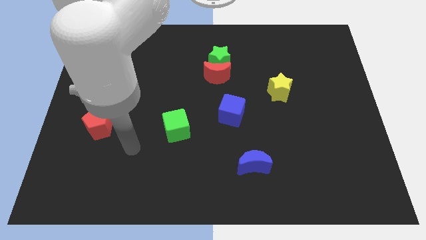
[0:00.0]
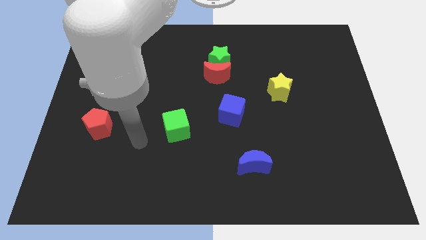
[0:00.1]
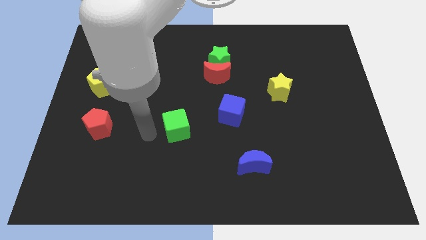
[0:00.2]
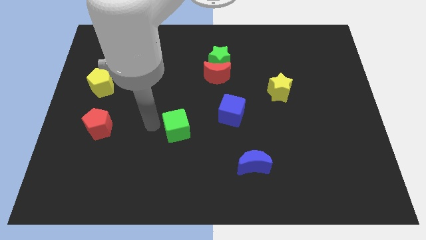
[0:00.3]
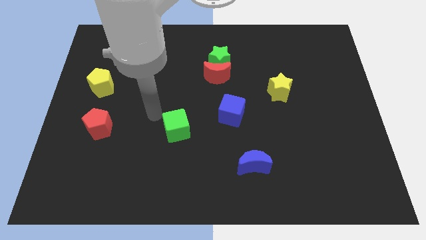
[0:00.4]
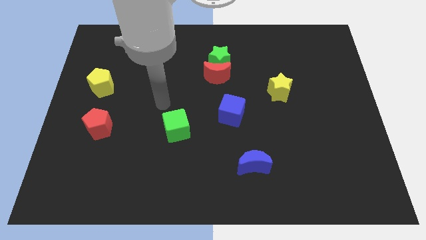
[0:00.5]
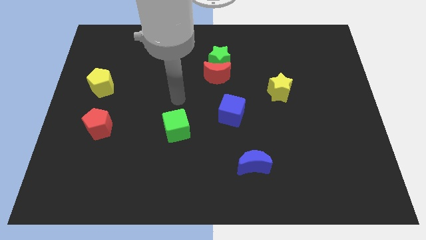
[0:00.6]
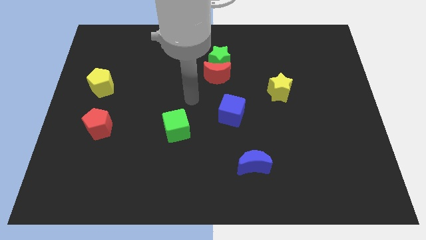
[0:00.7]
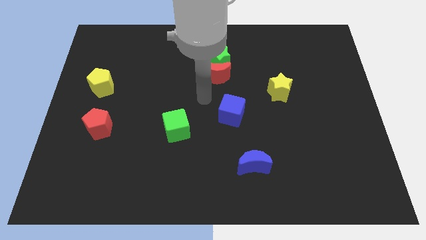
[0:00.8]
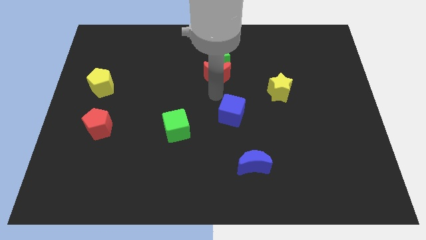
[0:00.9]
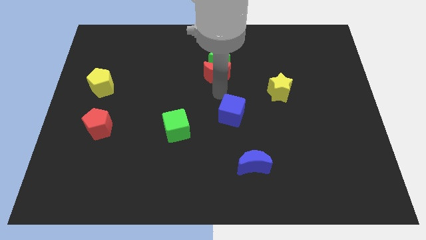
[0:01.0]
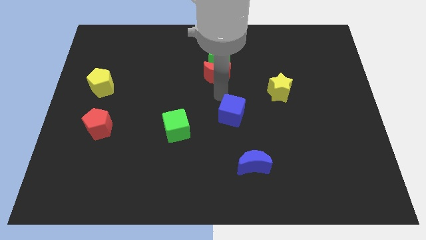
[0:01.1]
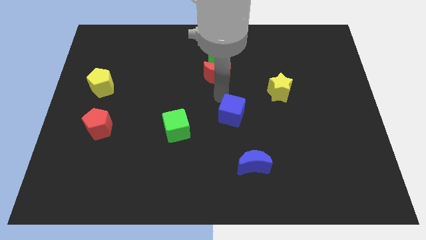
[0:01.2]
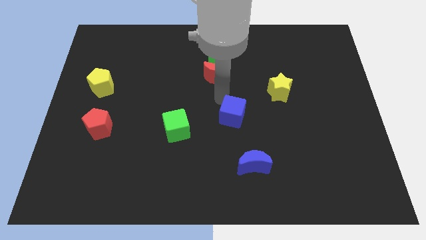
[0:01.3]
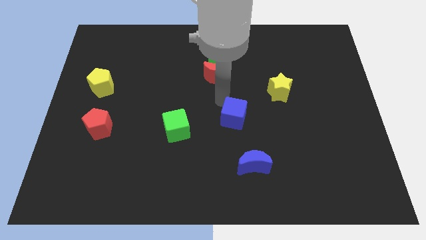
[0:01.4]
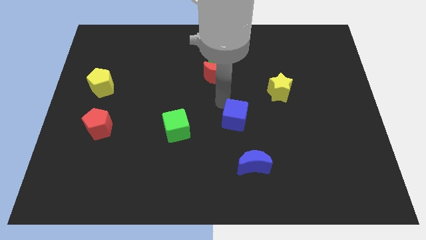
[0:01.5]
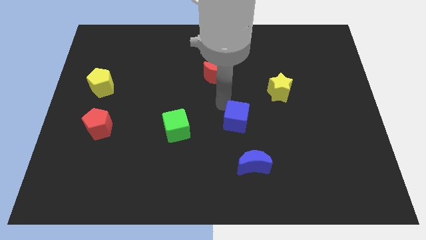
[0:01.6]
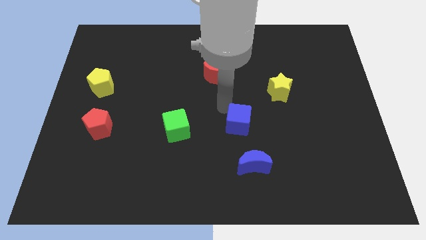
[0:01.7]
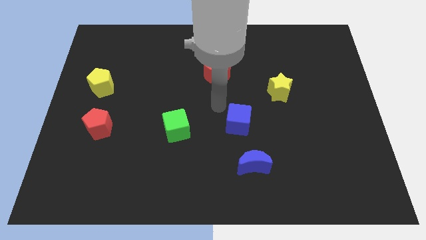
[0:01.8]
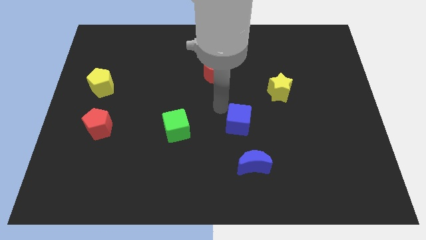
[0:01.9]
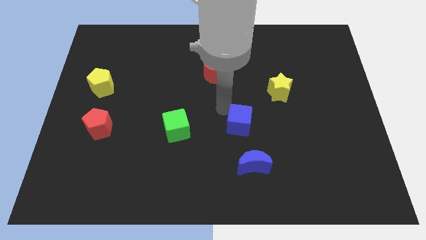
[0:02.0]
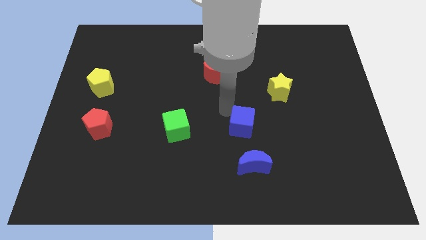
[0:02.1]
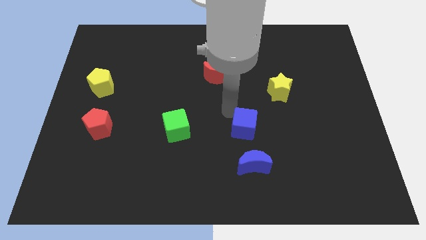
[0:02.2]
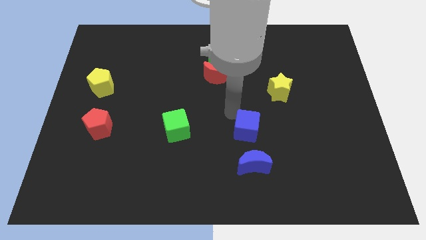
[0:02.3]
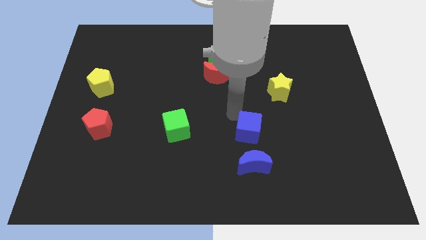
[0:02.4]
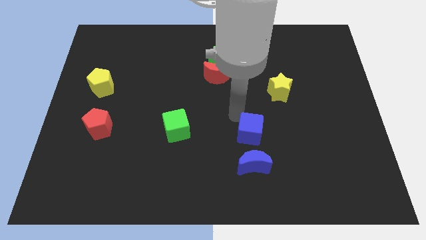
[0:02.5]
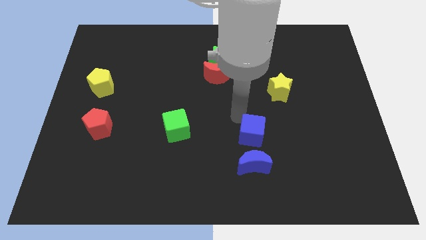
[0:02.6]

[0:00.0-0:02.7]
slide the blue cube slightly down and then to the right

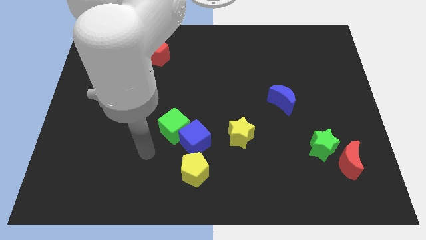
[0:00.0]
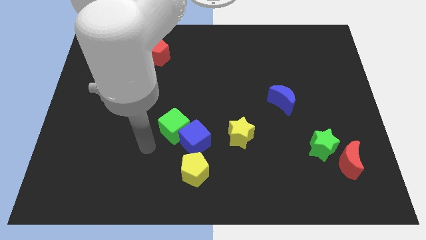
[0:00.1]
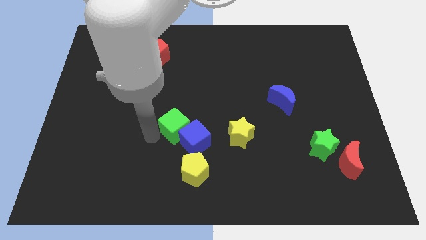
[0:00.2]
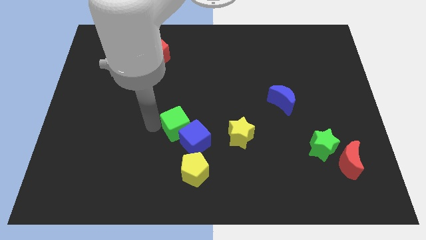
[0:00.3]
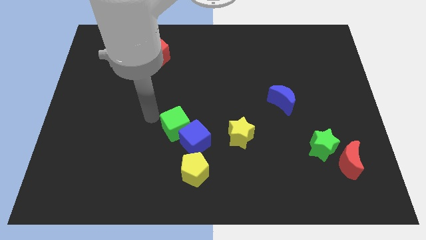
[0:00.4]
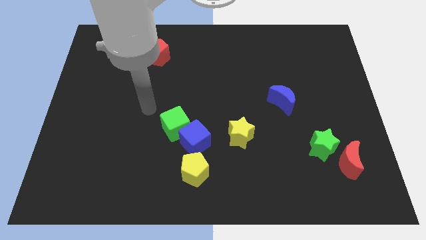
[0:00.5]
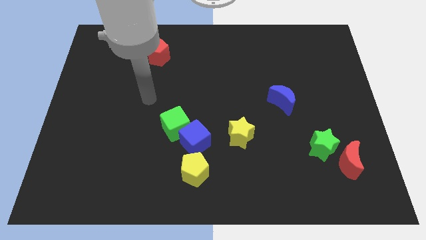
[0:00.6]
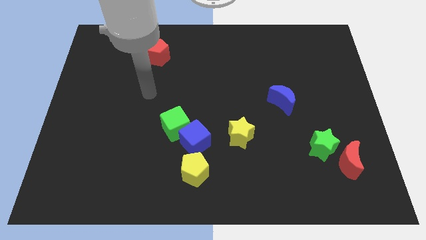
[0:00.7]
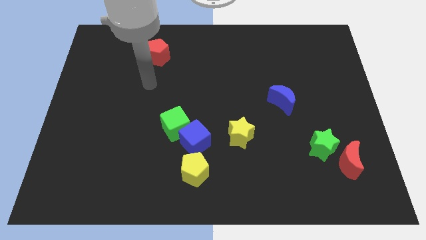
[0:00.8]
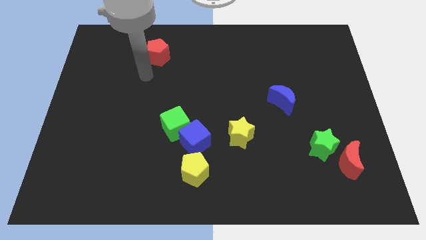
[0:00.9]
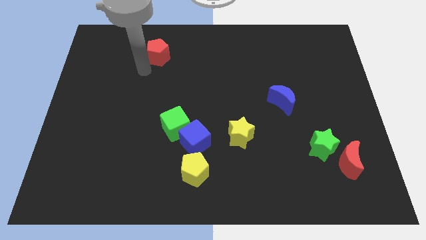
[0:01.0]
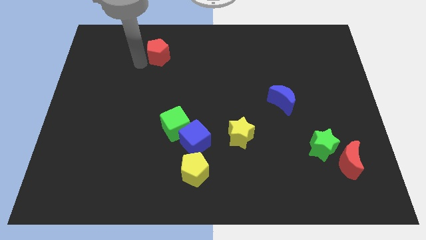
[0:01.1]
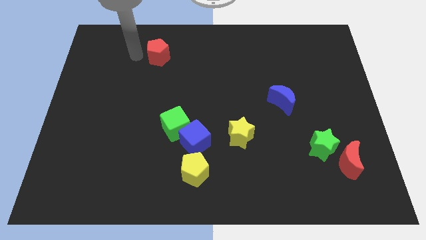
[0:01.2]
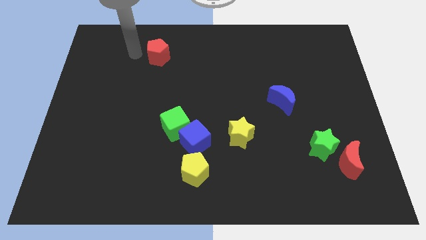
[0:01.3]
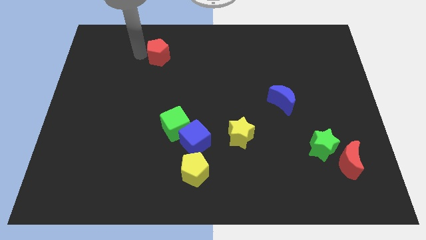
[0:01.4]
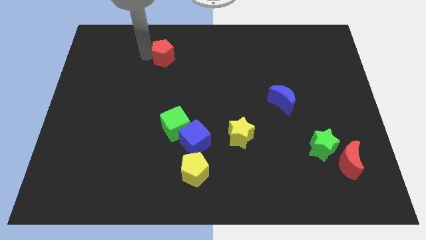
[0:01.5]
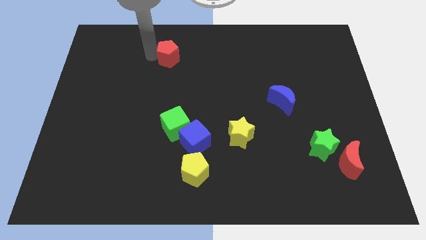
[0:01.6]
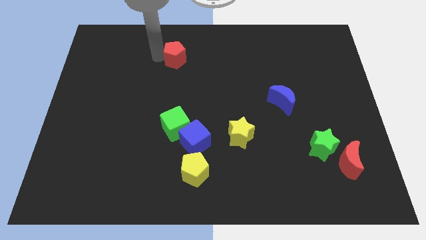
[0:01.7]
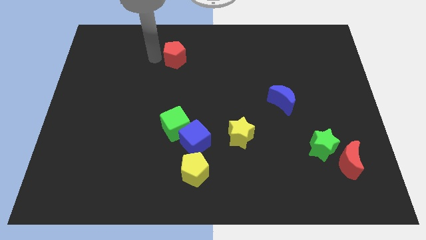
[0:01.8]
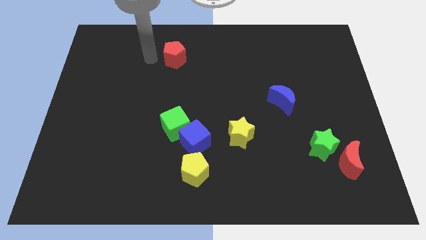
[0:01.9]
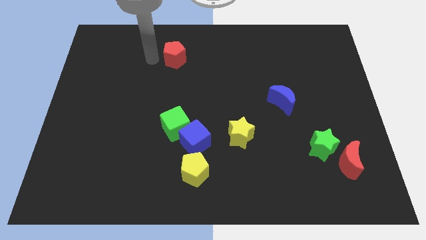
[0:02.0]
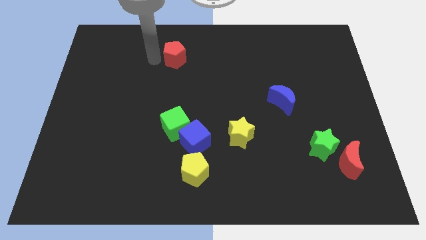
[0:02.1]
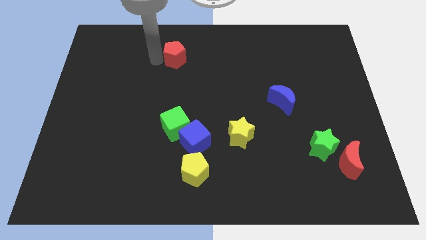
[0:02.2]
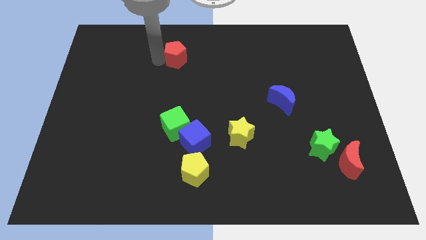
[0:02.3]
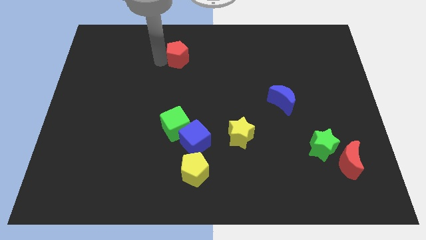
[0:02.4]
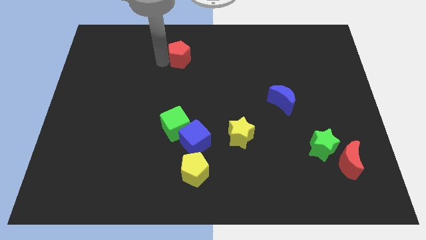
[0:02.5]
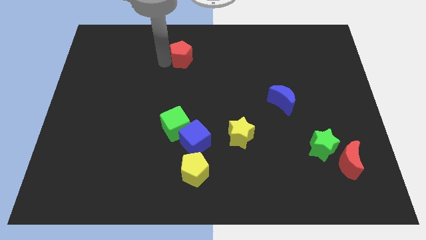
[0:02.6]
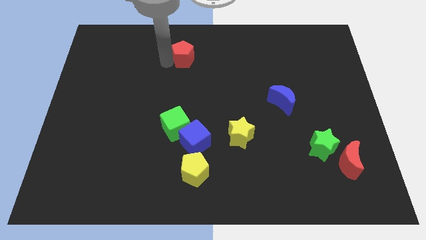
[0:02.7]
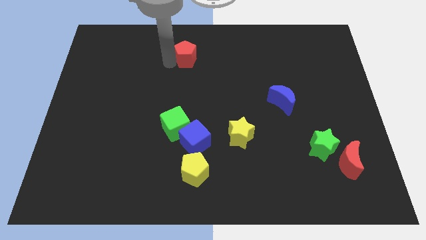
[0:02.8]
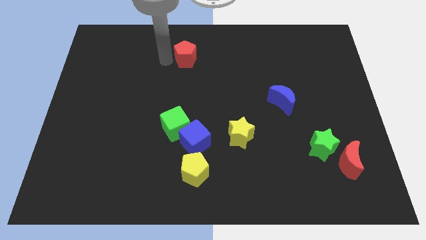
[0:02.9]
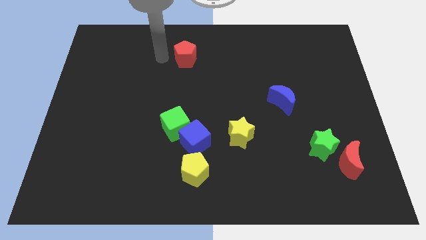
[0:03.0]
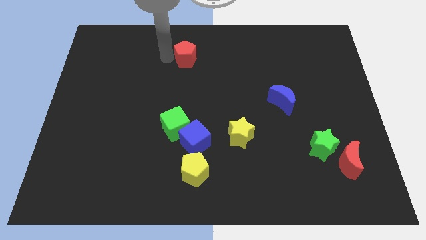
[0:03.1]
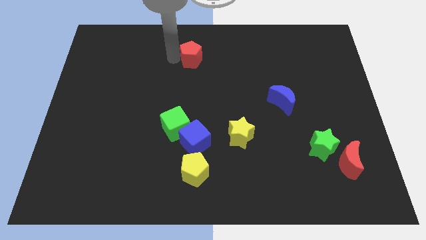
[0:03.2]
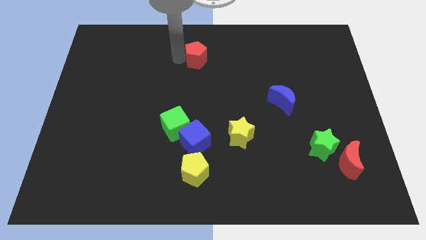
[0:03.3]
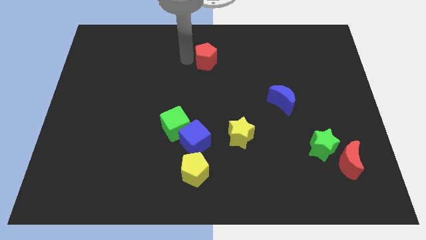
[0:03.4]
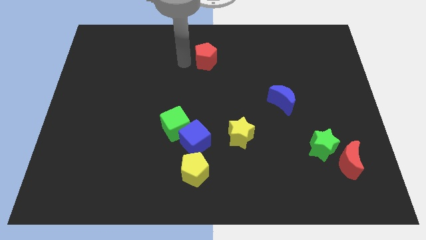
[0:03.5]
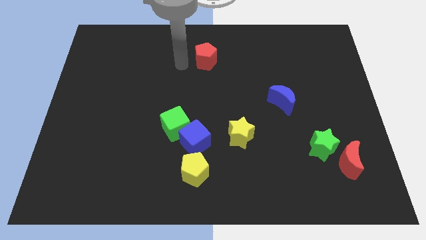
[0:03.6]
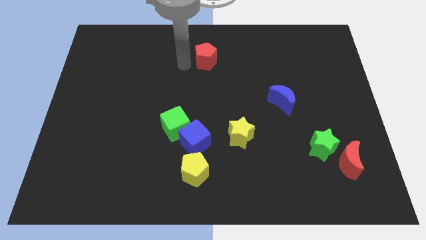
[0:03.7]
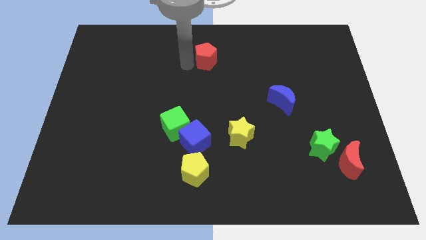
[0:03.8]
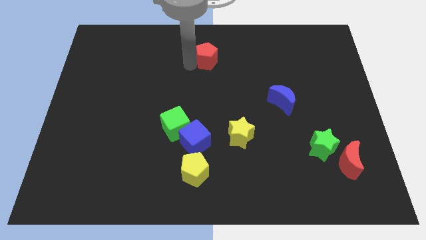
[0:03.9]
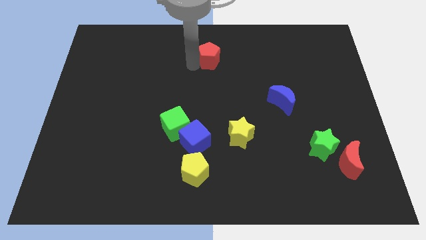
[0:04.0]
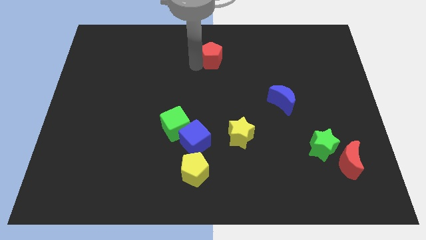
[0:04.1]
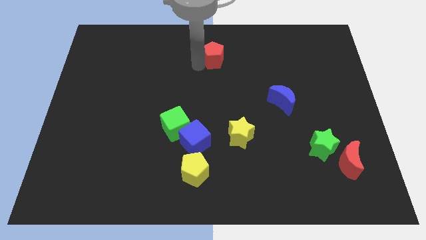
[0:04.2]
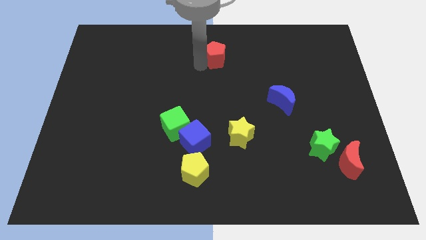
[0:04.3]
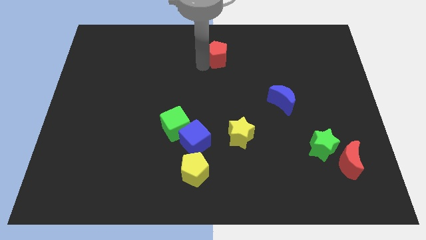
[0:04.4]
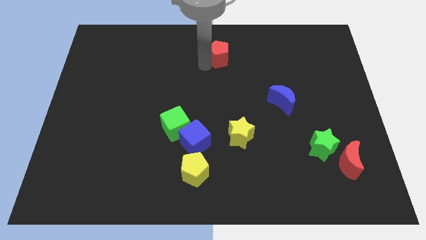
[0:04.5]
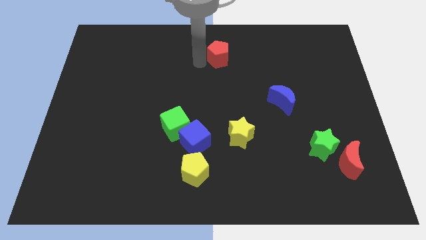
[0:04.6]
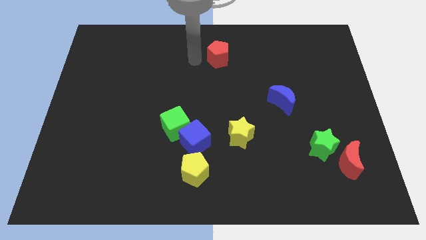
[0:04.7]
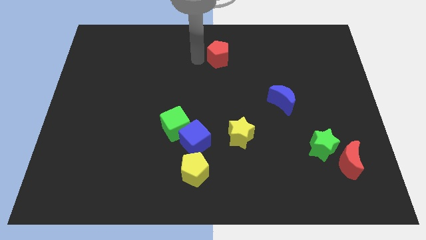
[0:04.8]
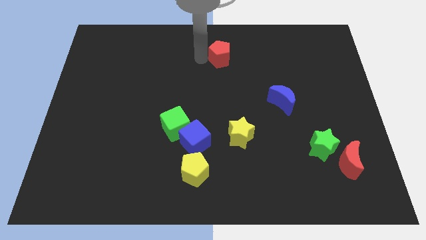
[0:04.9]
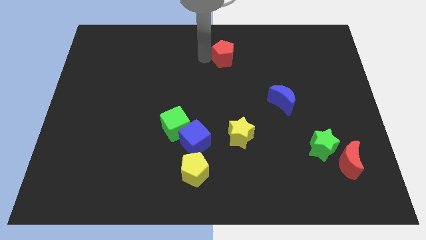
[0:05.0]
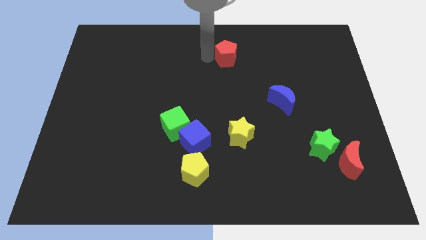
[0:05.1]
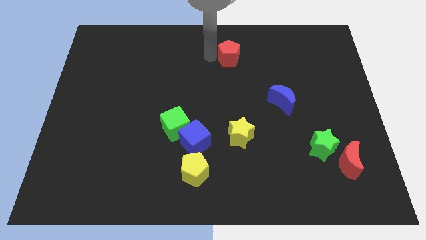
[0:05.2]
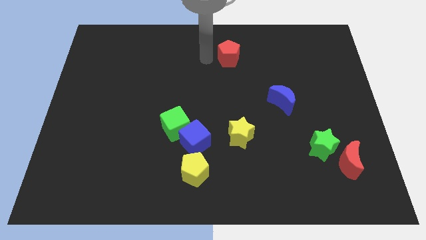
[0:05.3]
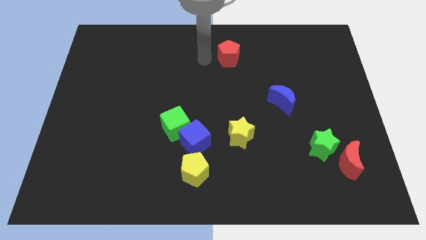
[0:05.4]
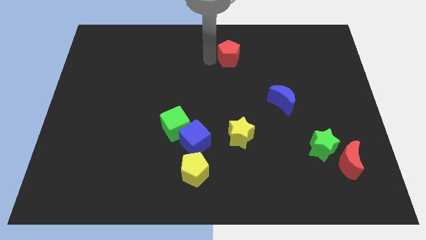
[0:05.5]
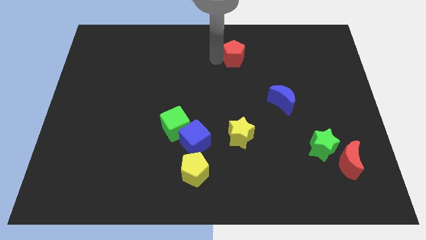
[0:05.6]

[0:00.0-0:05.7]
move the red pentagon to the right
